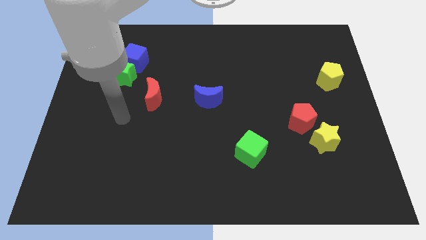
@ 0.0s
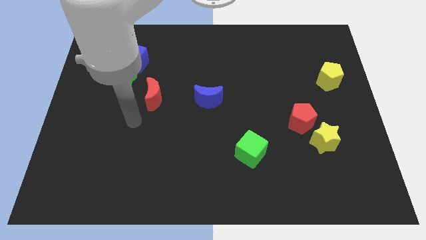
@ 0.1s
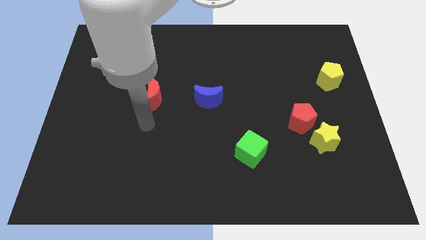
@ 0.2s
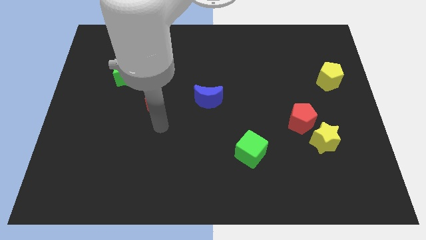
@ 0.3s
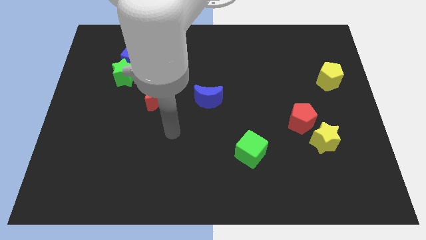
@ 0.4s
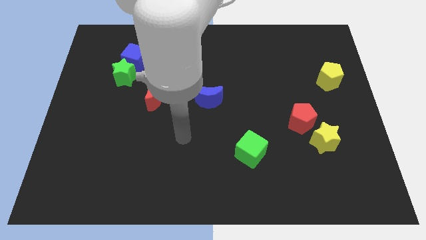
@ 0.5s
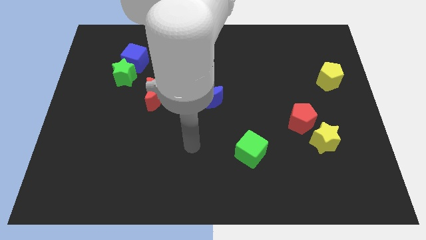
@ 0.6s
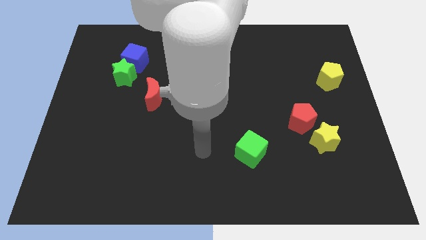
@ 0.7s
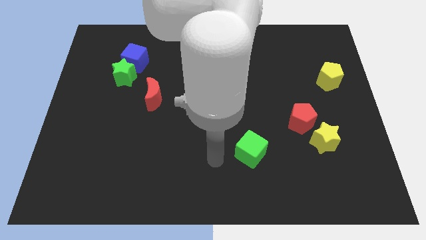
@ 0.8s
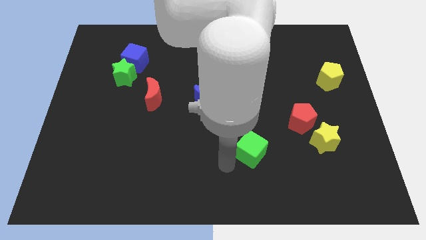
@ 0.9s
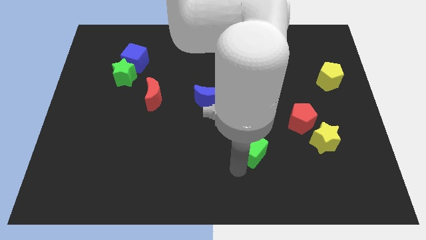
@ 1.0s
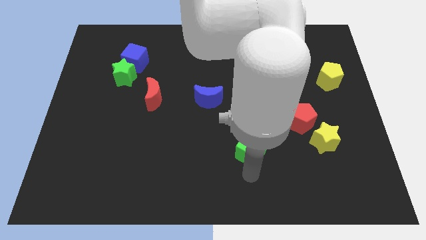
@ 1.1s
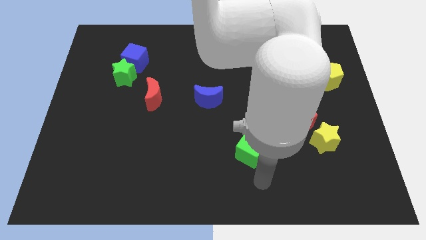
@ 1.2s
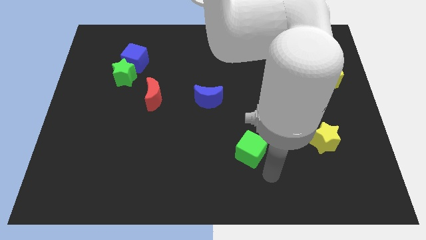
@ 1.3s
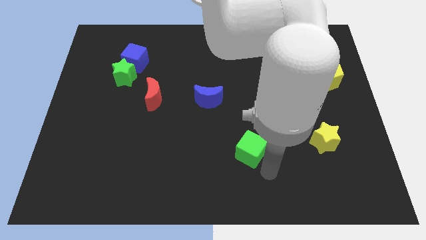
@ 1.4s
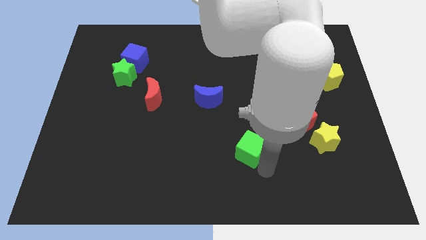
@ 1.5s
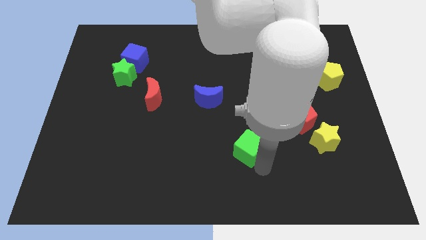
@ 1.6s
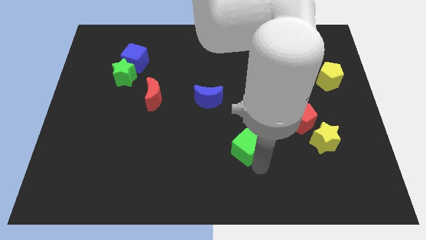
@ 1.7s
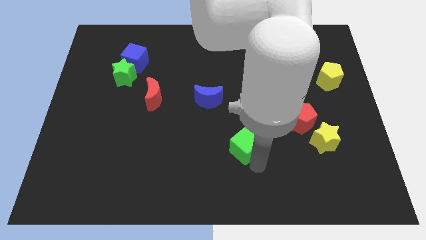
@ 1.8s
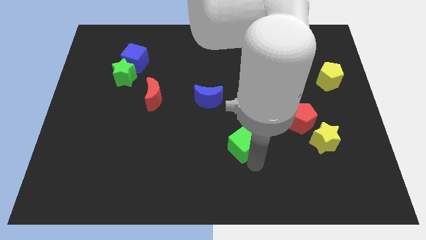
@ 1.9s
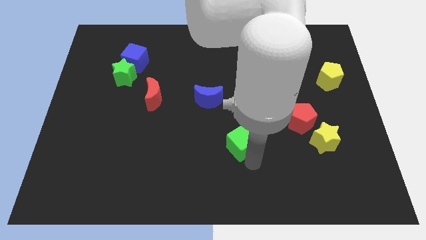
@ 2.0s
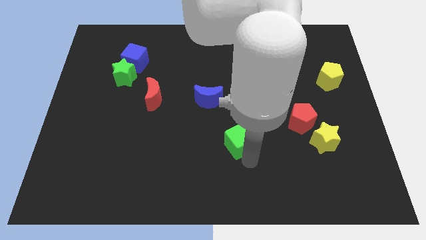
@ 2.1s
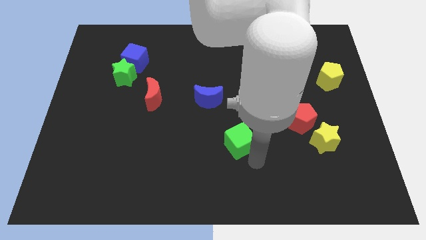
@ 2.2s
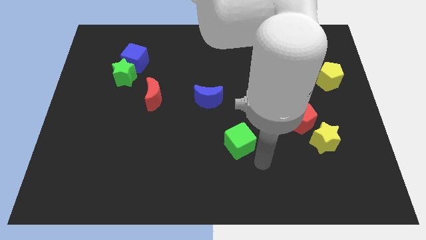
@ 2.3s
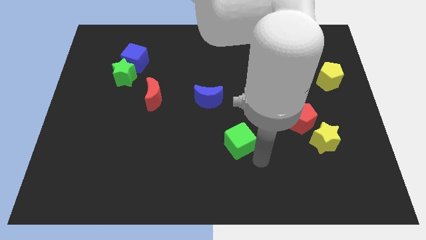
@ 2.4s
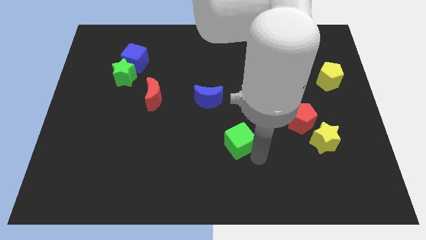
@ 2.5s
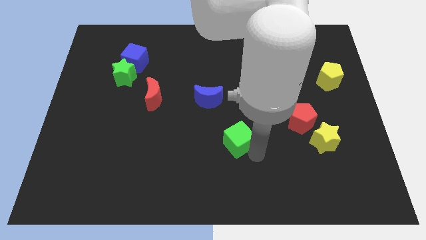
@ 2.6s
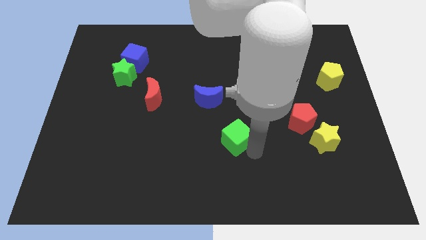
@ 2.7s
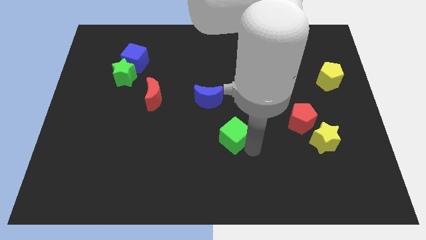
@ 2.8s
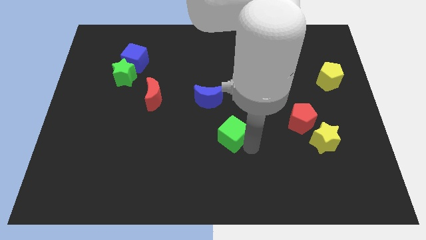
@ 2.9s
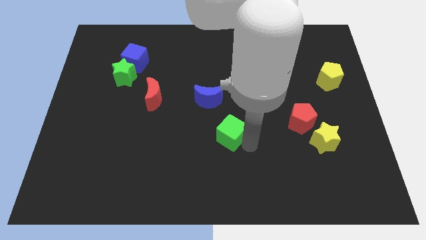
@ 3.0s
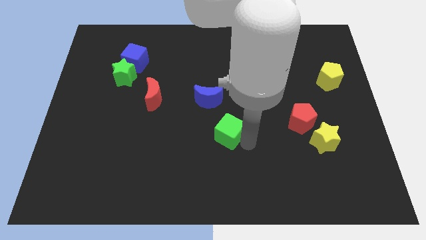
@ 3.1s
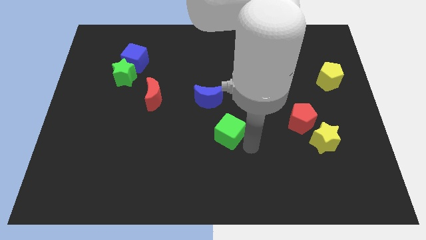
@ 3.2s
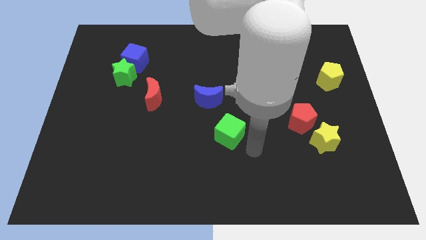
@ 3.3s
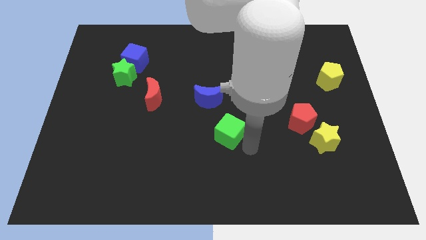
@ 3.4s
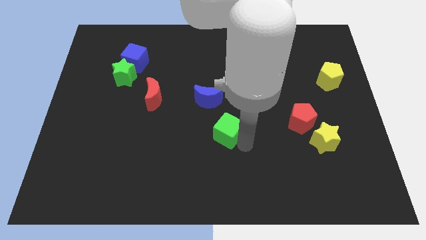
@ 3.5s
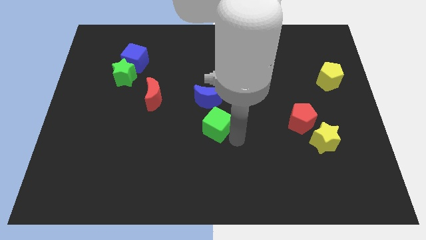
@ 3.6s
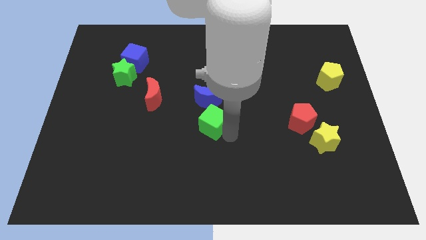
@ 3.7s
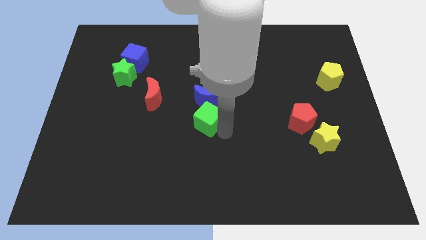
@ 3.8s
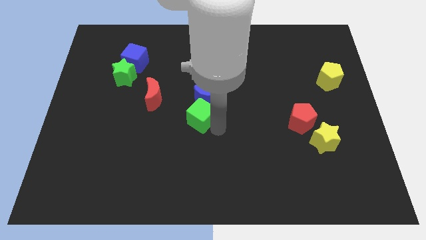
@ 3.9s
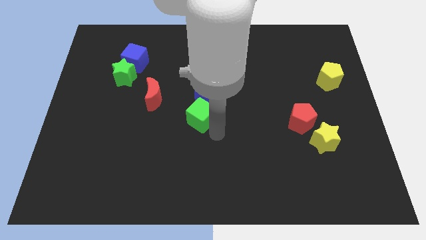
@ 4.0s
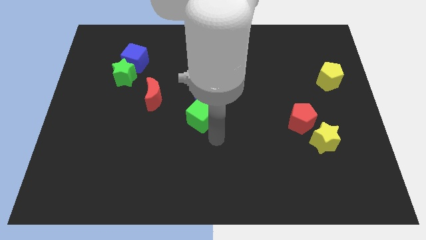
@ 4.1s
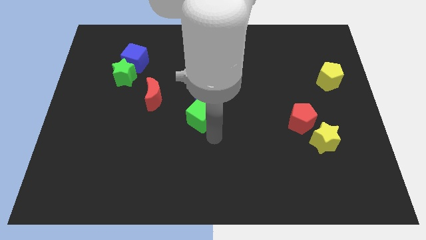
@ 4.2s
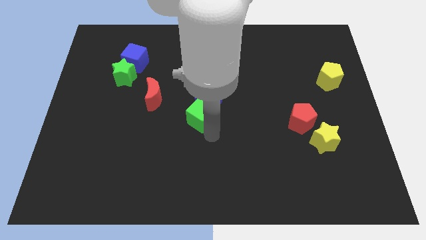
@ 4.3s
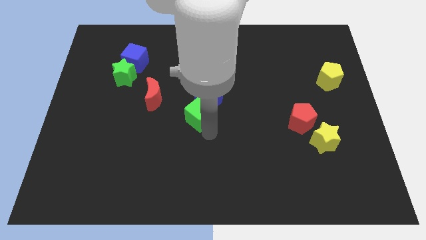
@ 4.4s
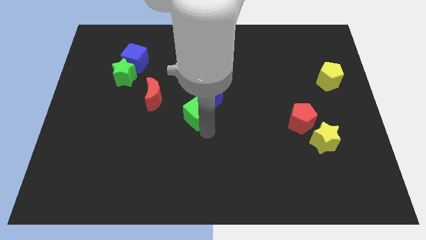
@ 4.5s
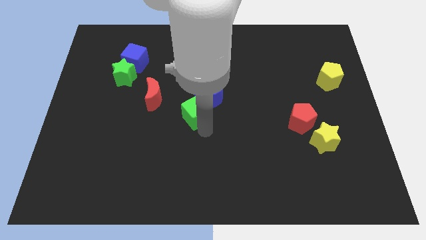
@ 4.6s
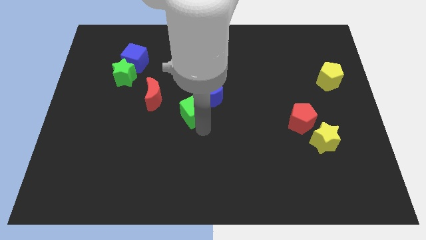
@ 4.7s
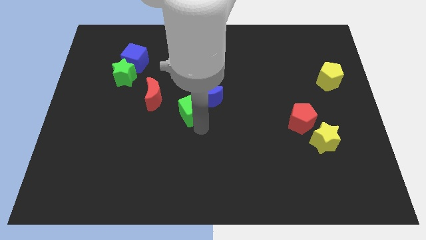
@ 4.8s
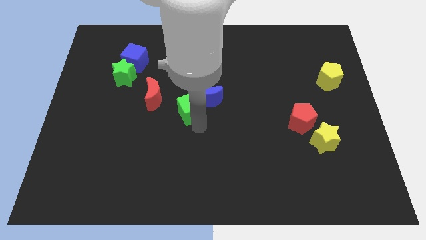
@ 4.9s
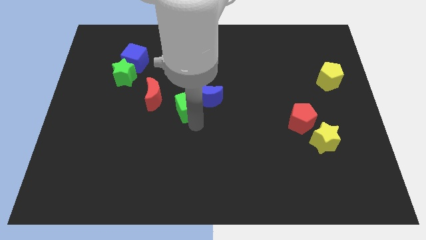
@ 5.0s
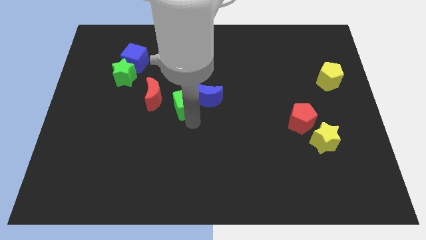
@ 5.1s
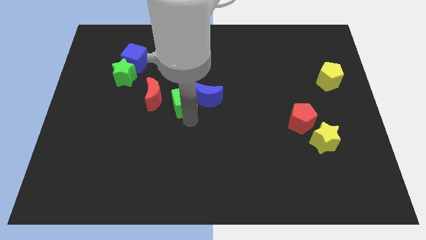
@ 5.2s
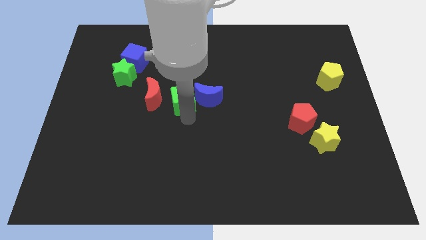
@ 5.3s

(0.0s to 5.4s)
slide the green cube to the top left side of the blue moon

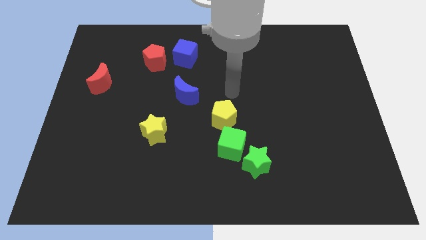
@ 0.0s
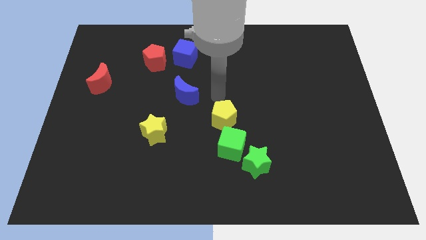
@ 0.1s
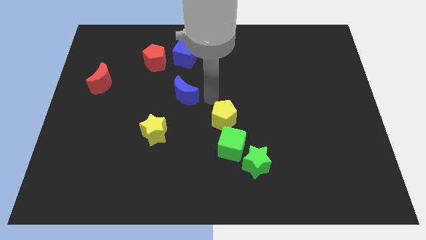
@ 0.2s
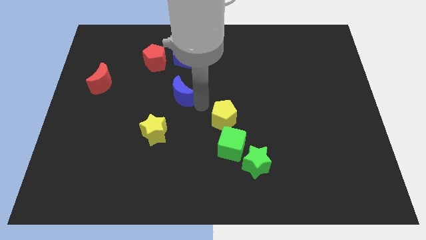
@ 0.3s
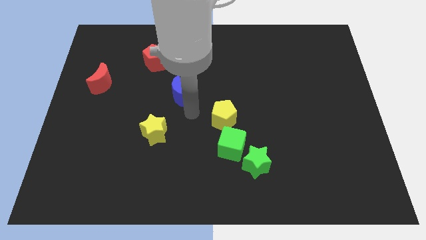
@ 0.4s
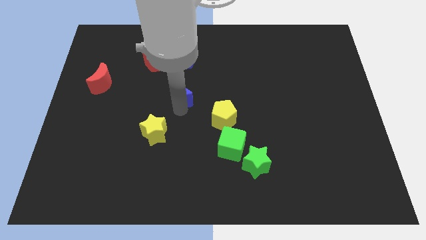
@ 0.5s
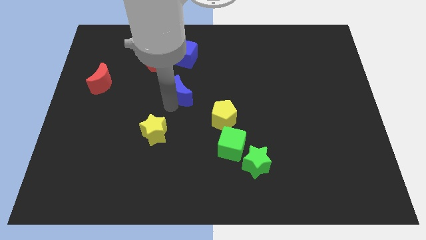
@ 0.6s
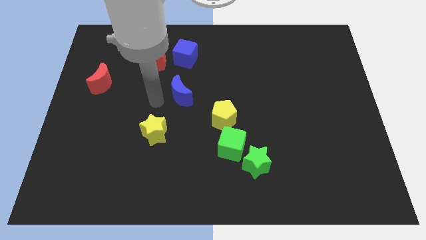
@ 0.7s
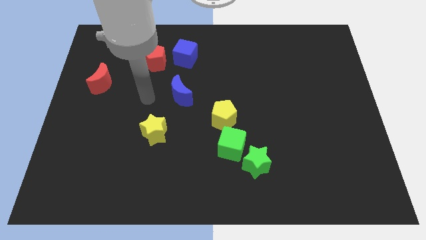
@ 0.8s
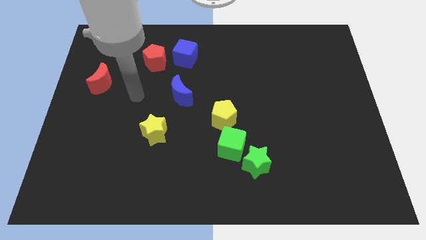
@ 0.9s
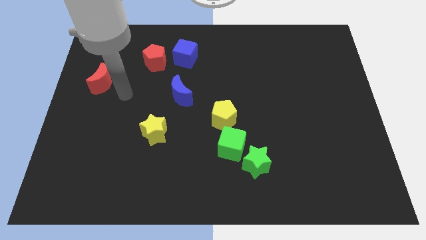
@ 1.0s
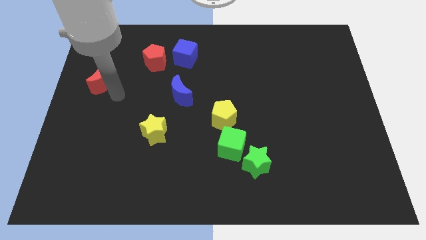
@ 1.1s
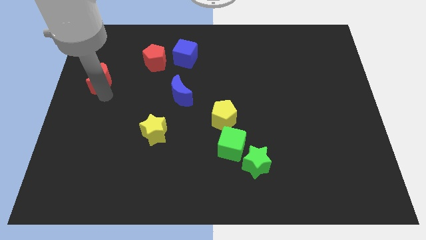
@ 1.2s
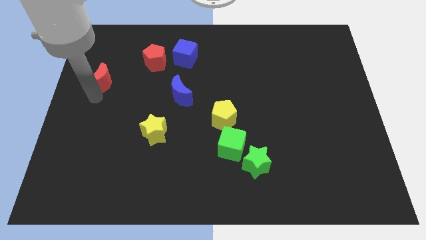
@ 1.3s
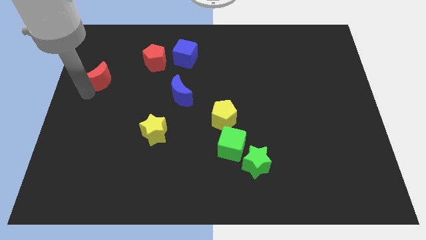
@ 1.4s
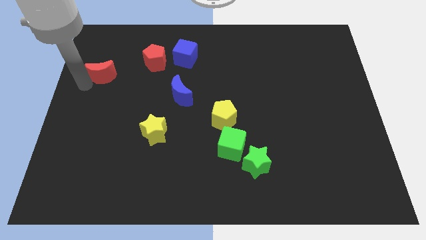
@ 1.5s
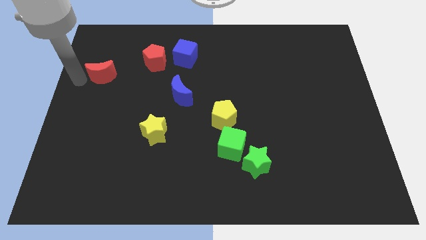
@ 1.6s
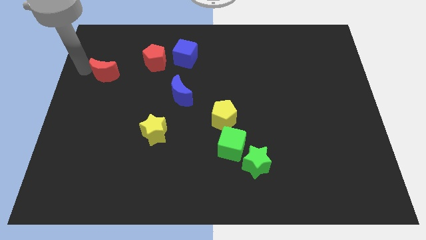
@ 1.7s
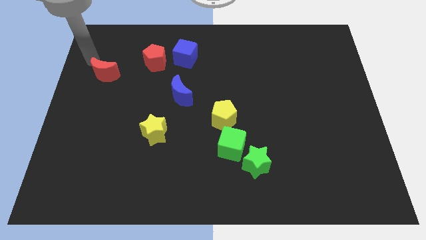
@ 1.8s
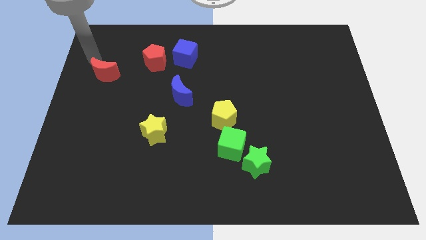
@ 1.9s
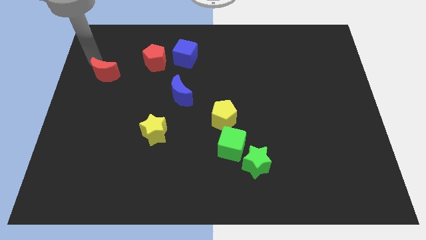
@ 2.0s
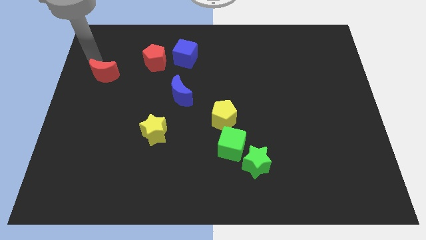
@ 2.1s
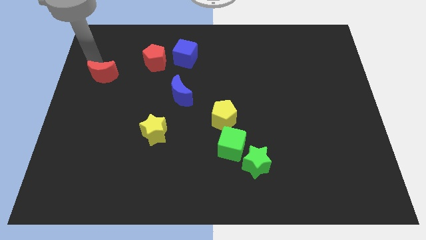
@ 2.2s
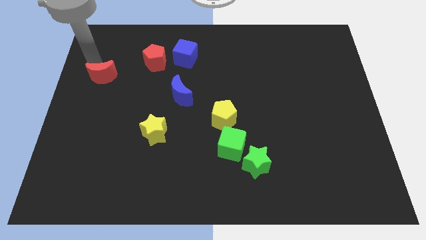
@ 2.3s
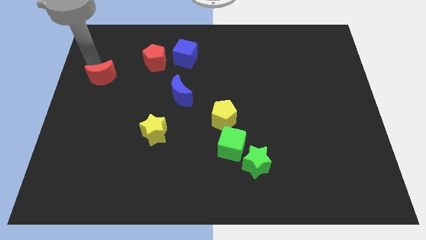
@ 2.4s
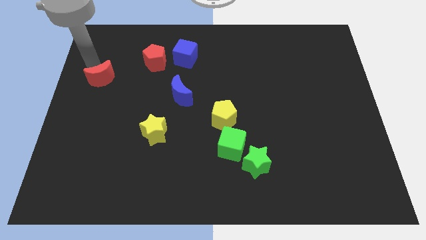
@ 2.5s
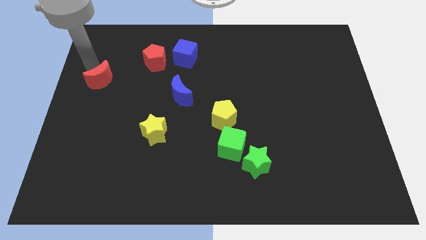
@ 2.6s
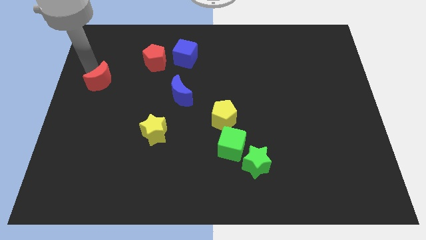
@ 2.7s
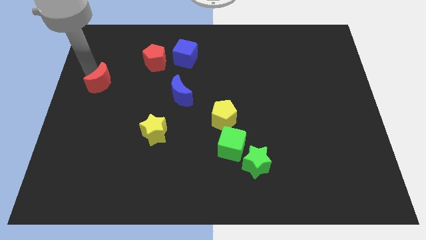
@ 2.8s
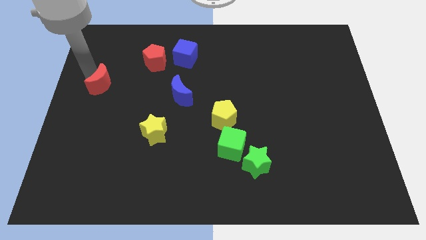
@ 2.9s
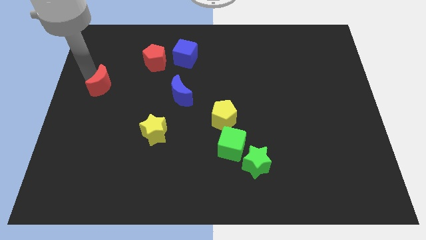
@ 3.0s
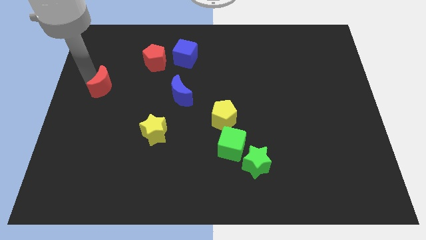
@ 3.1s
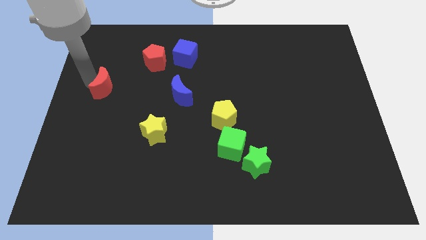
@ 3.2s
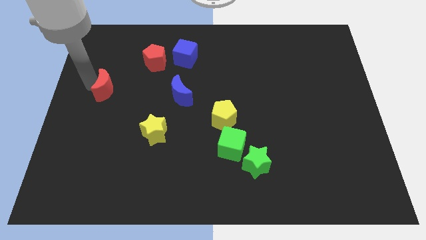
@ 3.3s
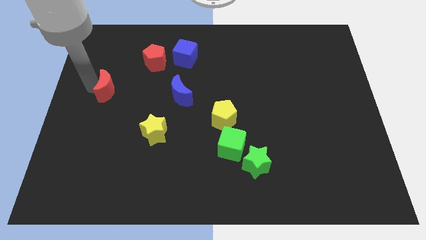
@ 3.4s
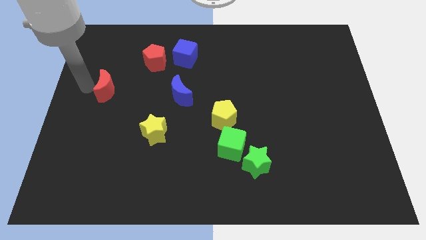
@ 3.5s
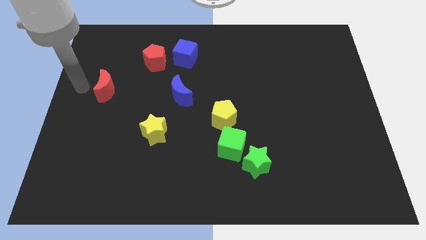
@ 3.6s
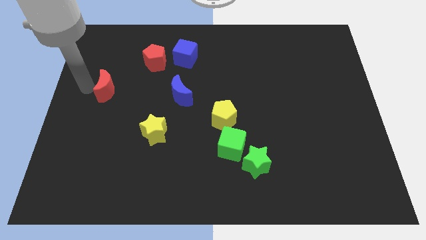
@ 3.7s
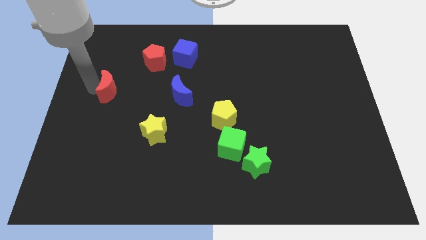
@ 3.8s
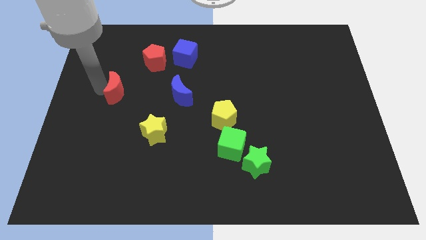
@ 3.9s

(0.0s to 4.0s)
put the red moon to the left of the blue moon
